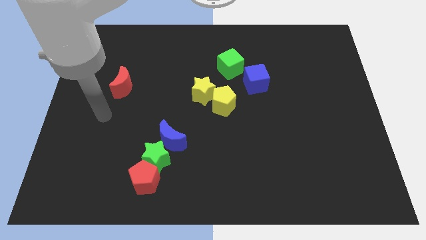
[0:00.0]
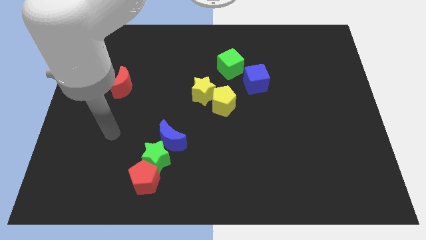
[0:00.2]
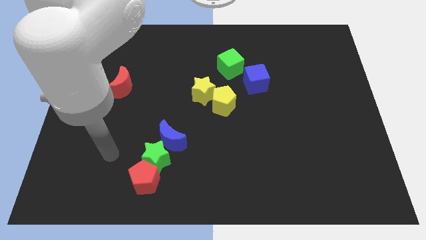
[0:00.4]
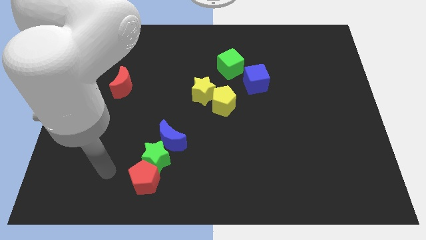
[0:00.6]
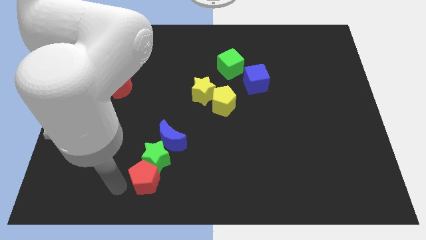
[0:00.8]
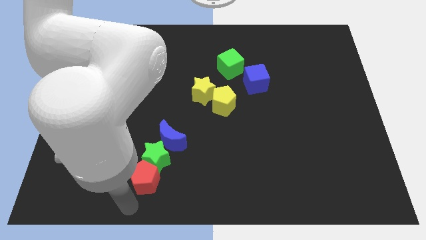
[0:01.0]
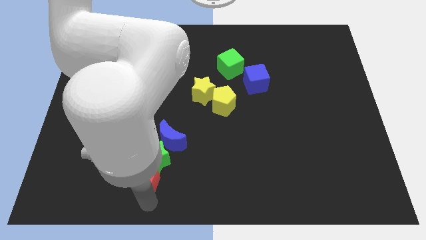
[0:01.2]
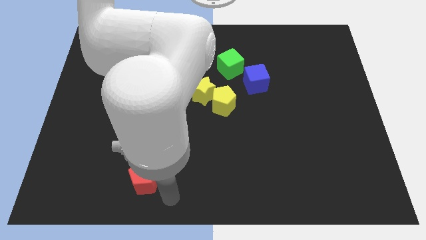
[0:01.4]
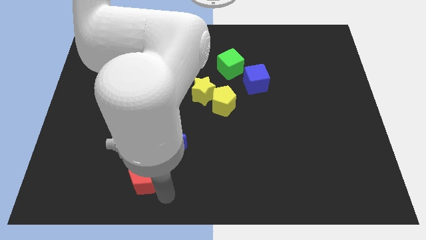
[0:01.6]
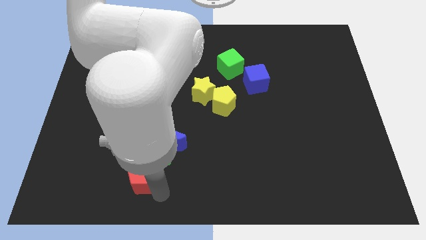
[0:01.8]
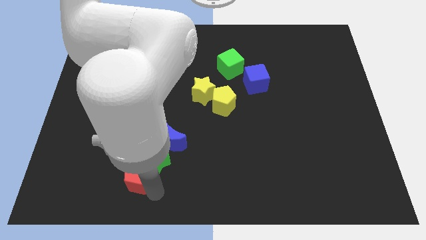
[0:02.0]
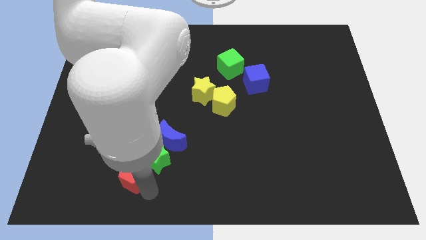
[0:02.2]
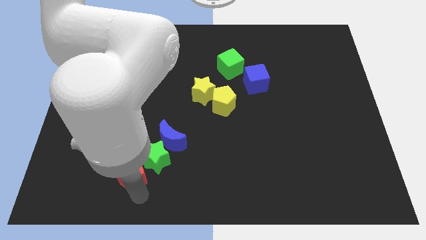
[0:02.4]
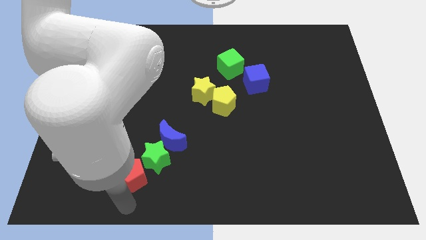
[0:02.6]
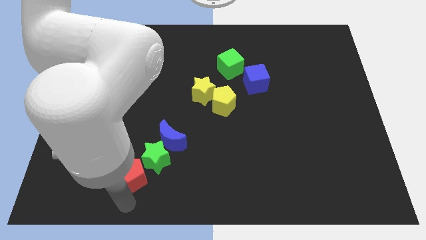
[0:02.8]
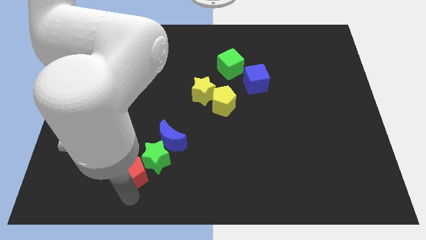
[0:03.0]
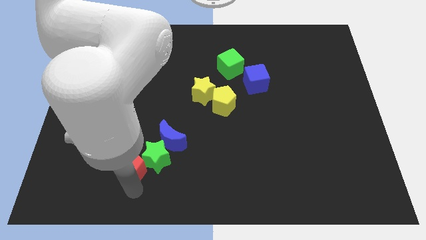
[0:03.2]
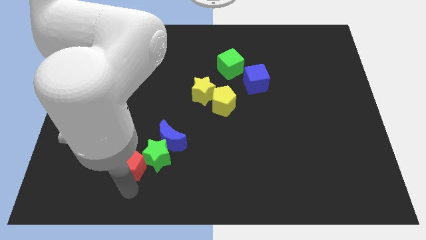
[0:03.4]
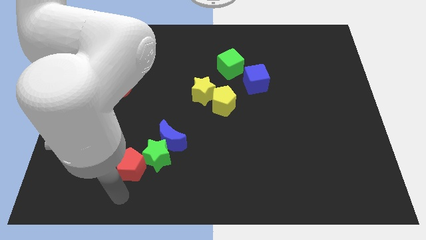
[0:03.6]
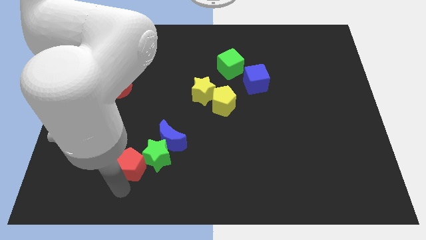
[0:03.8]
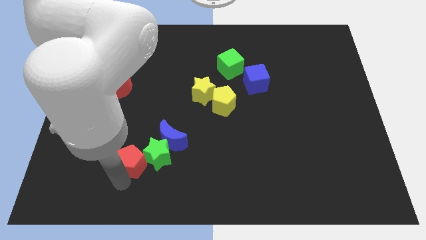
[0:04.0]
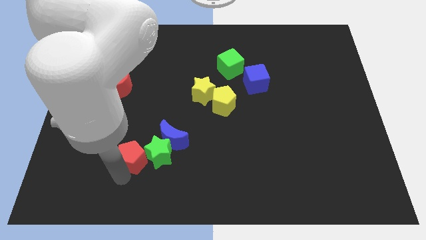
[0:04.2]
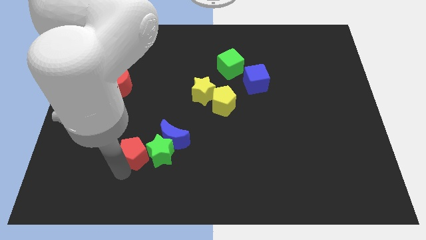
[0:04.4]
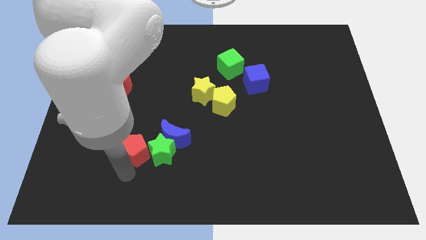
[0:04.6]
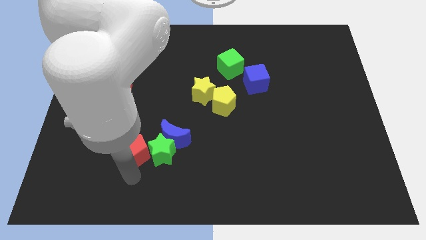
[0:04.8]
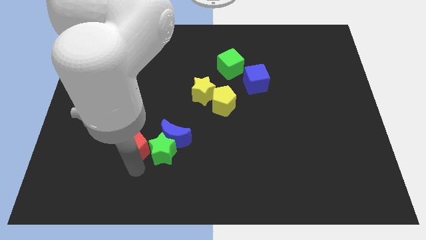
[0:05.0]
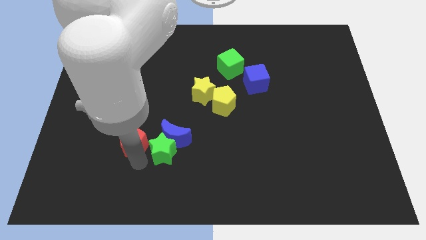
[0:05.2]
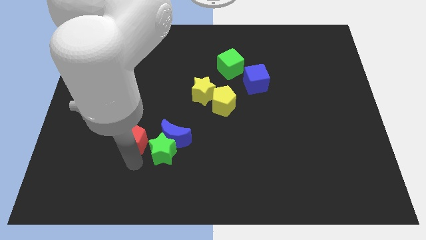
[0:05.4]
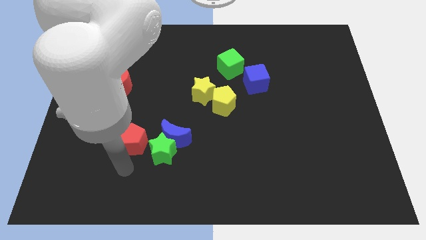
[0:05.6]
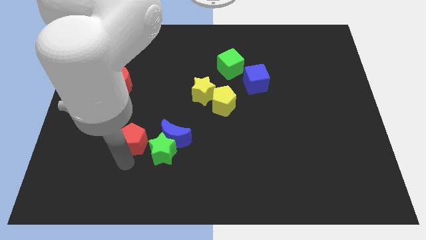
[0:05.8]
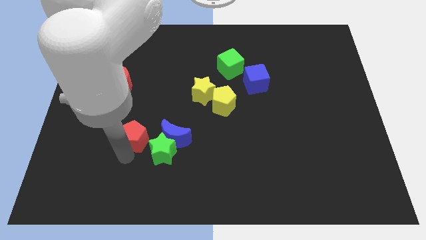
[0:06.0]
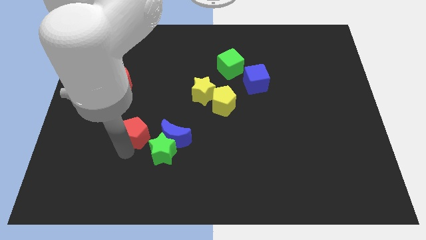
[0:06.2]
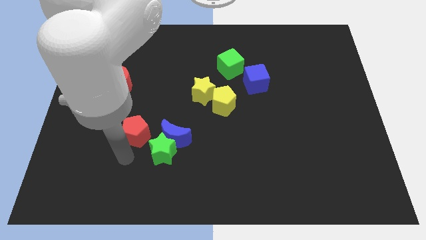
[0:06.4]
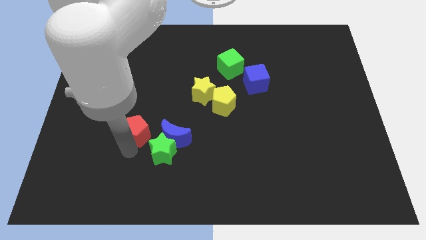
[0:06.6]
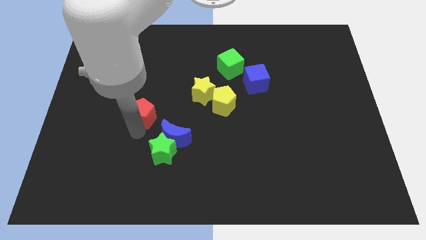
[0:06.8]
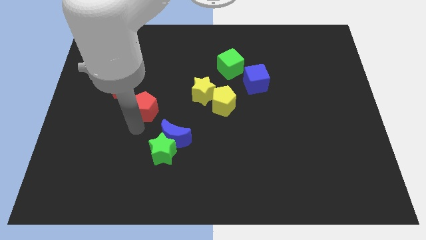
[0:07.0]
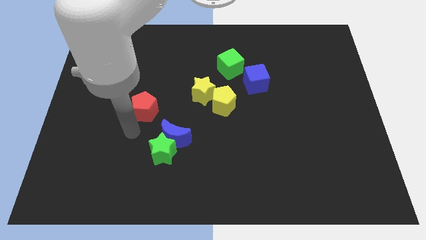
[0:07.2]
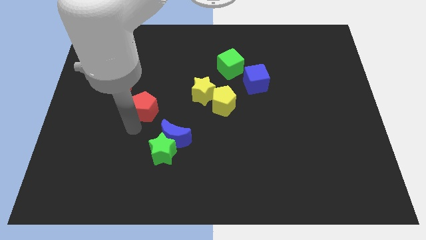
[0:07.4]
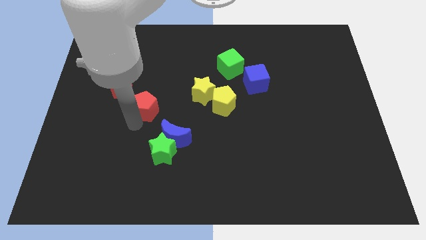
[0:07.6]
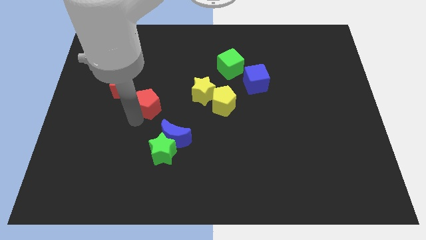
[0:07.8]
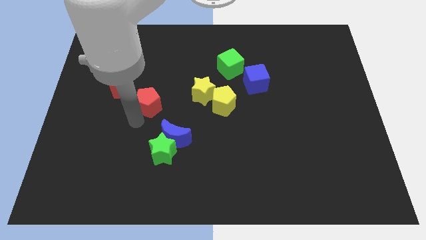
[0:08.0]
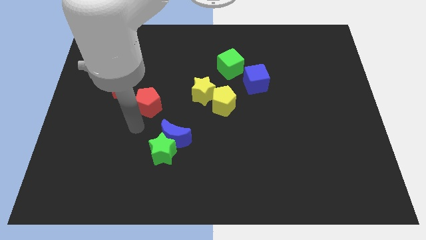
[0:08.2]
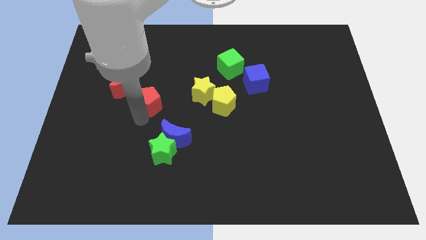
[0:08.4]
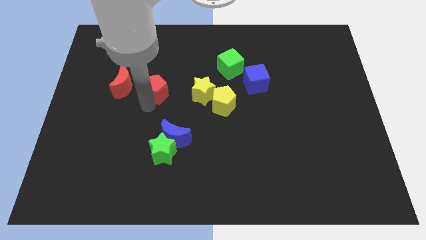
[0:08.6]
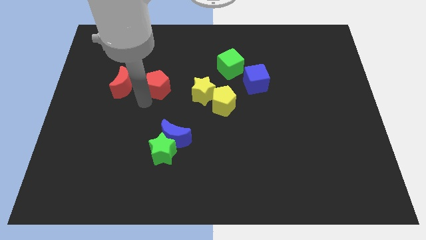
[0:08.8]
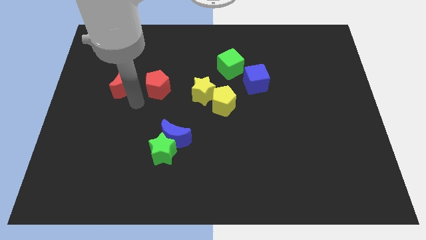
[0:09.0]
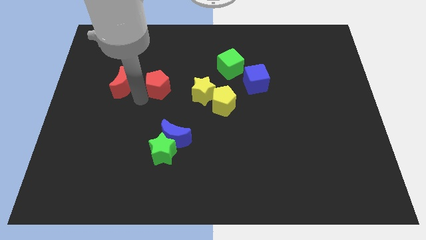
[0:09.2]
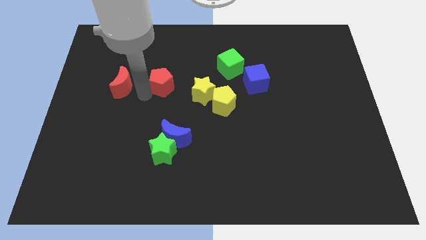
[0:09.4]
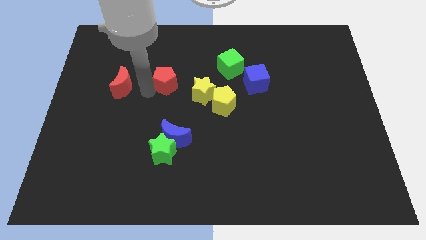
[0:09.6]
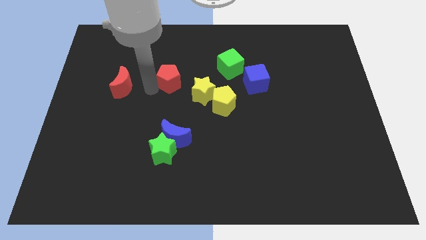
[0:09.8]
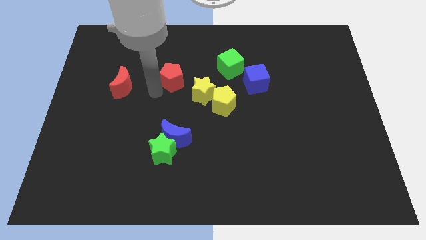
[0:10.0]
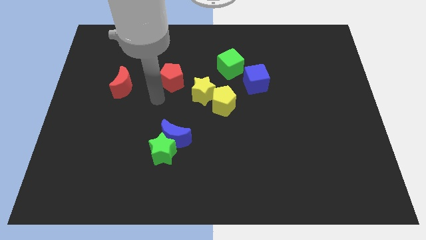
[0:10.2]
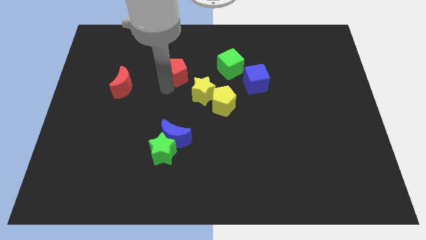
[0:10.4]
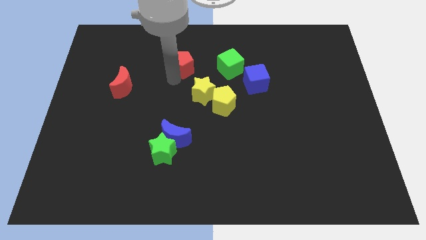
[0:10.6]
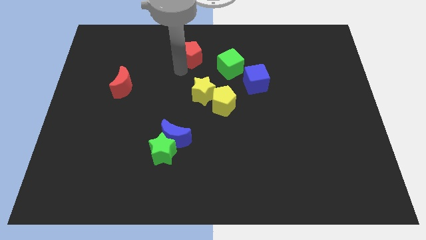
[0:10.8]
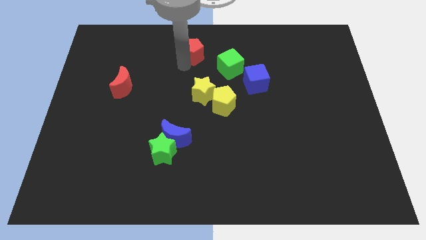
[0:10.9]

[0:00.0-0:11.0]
slide the red pentagon to the towards your base

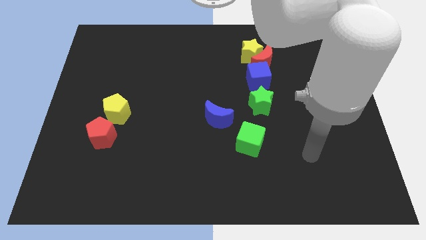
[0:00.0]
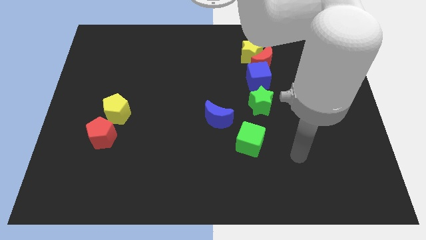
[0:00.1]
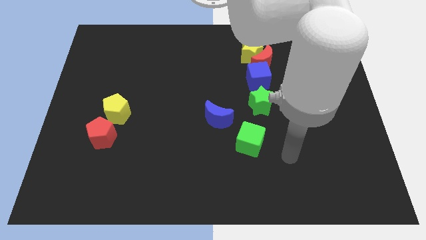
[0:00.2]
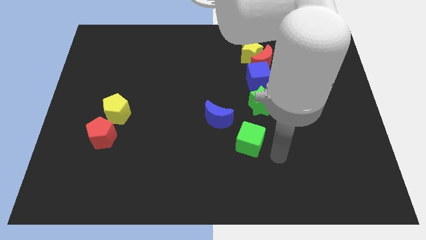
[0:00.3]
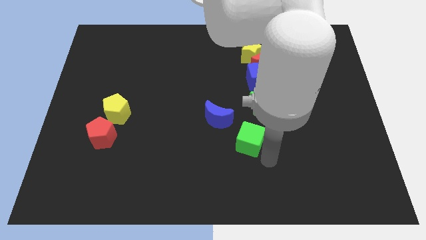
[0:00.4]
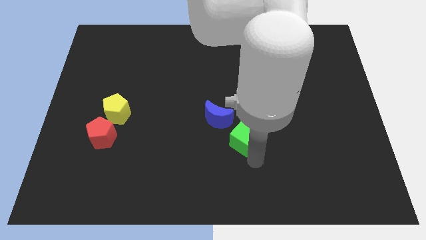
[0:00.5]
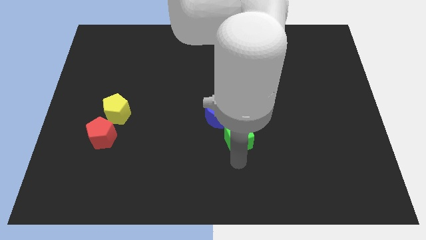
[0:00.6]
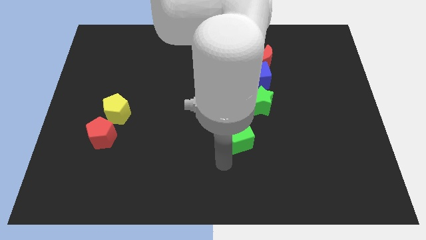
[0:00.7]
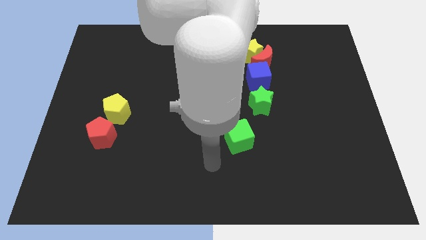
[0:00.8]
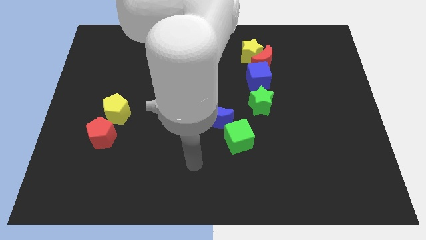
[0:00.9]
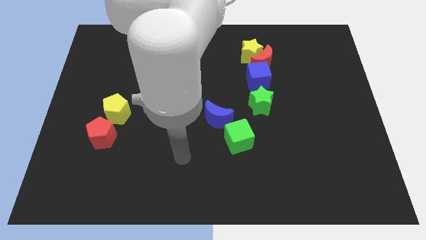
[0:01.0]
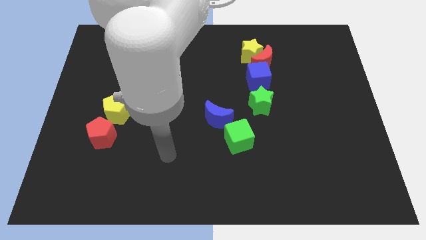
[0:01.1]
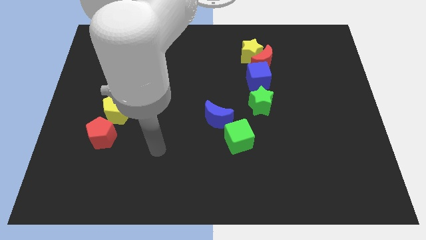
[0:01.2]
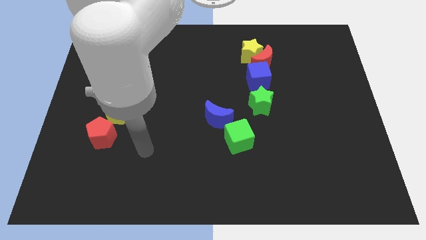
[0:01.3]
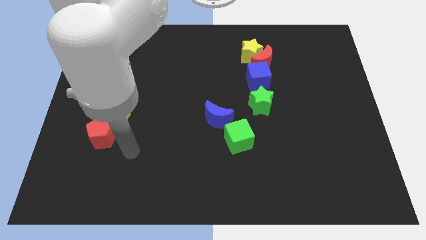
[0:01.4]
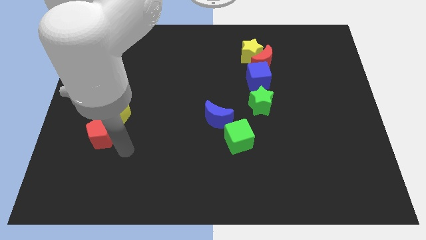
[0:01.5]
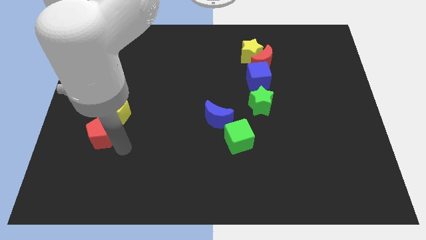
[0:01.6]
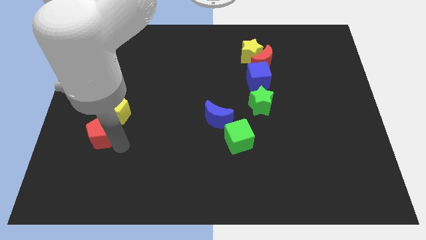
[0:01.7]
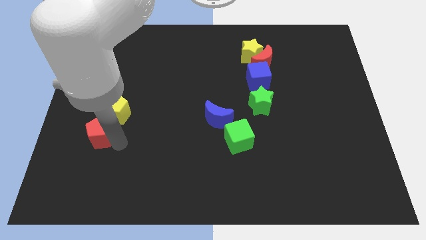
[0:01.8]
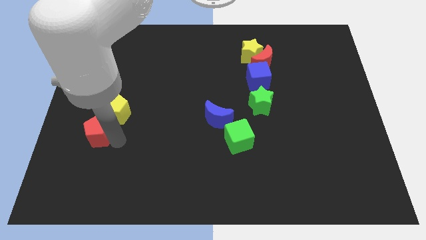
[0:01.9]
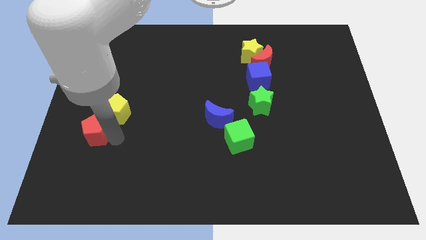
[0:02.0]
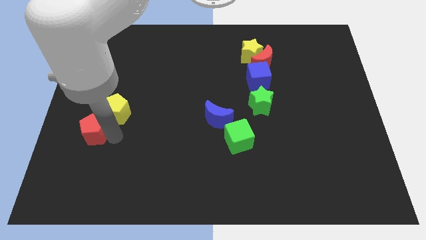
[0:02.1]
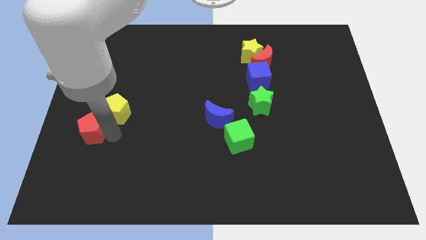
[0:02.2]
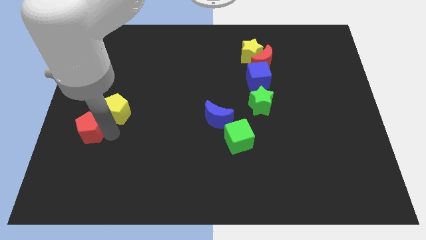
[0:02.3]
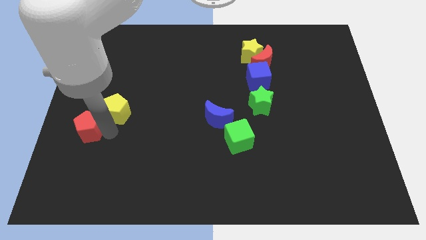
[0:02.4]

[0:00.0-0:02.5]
slide the red pentagon to the left side
